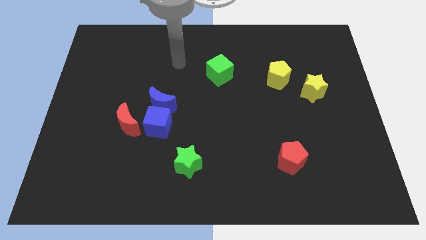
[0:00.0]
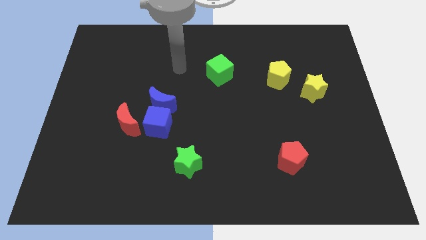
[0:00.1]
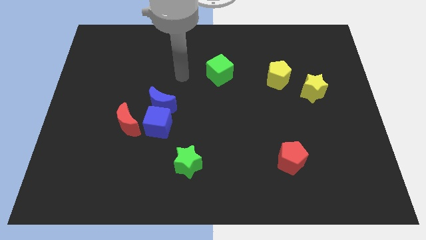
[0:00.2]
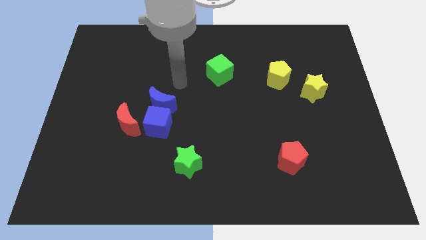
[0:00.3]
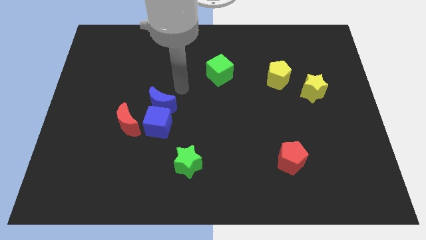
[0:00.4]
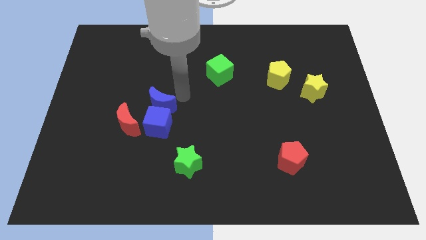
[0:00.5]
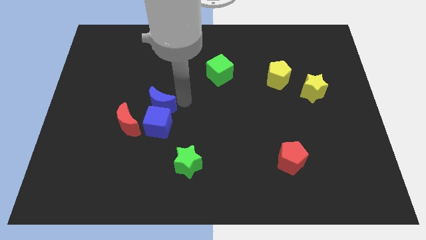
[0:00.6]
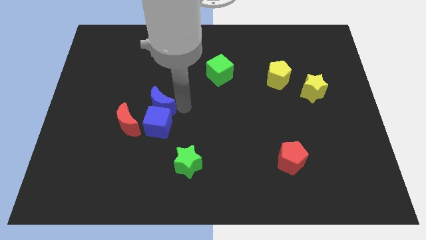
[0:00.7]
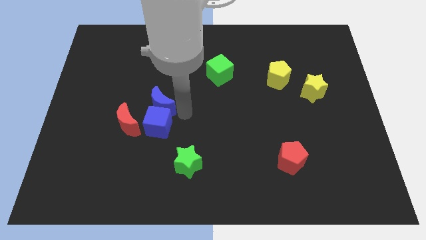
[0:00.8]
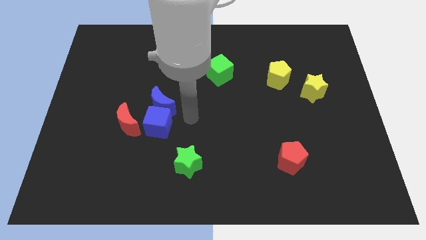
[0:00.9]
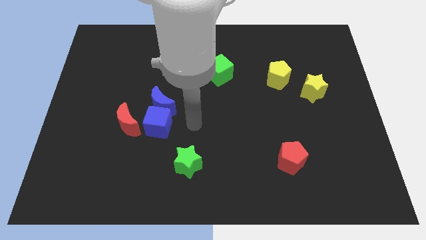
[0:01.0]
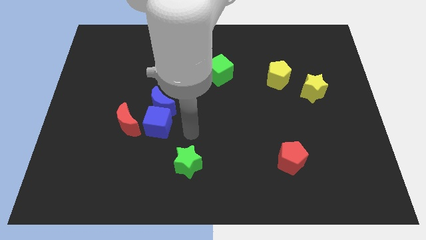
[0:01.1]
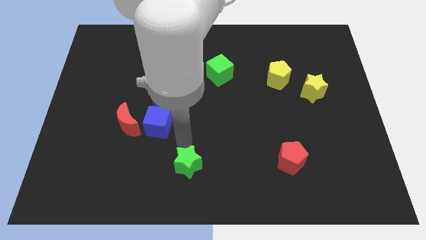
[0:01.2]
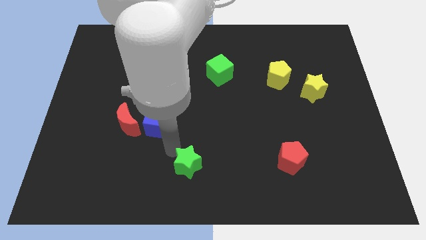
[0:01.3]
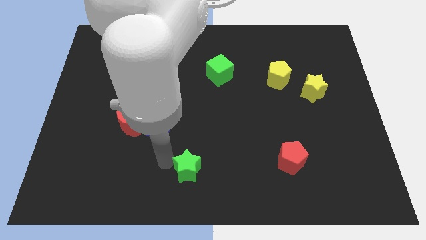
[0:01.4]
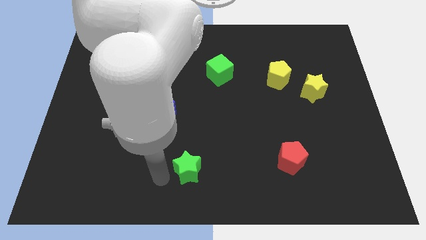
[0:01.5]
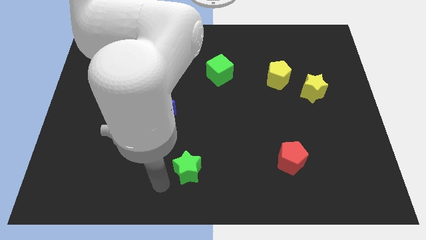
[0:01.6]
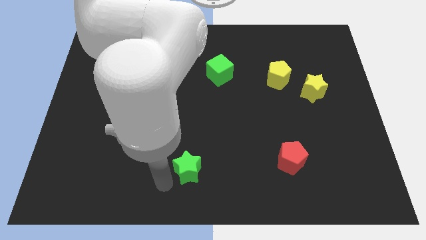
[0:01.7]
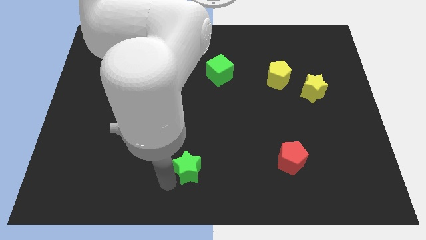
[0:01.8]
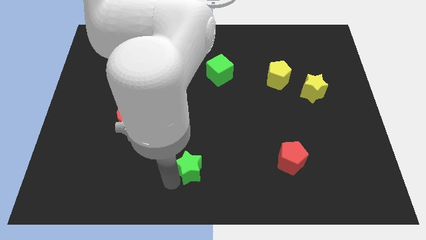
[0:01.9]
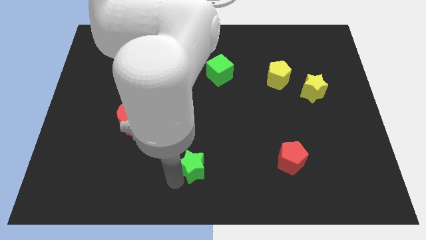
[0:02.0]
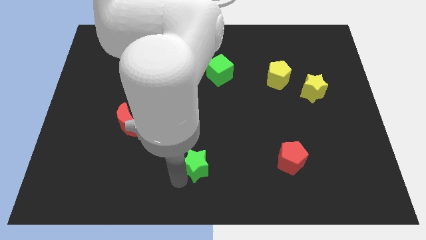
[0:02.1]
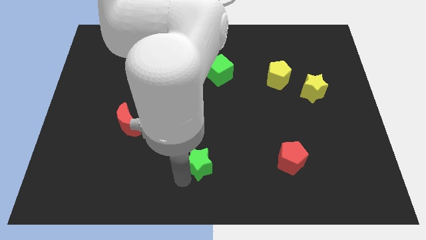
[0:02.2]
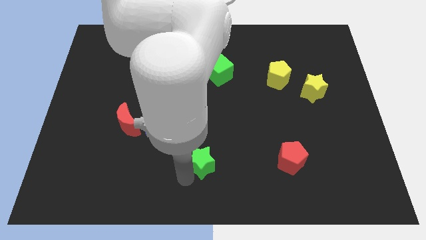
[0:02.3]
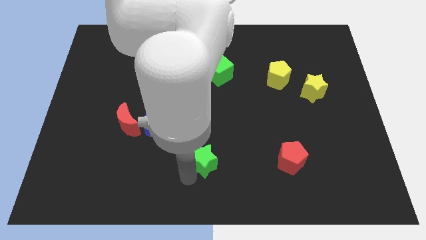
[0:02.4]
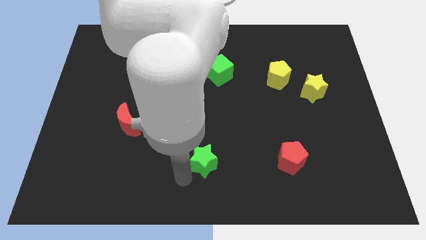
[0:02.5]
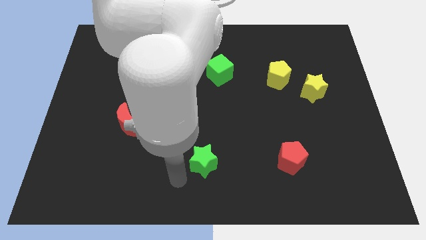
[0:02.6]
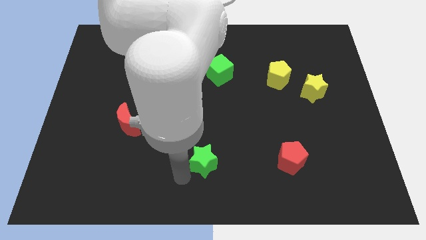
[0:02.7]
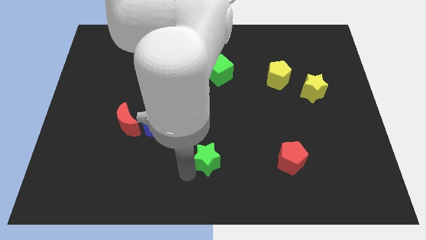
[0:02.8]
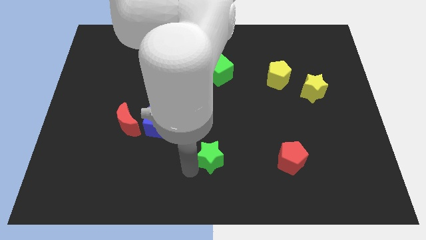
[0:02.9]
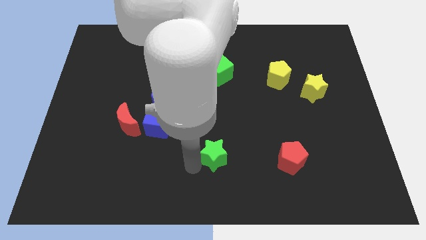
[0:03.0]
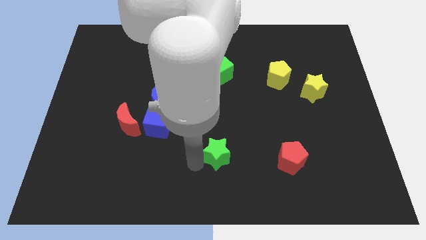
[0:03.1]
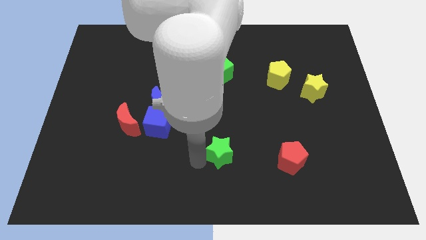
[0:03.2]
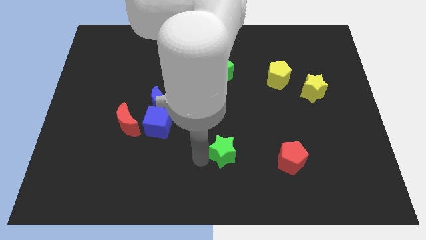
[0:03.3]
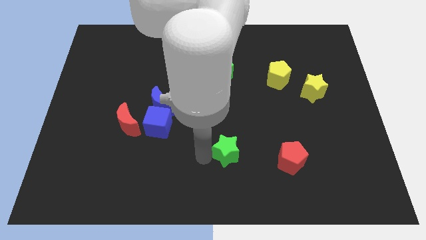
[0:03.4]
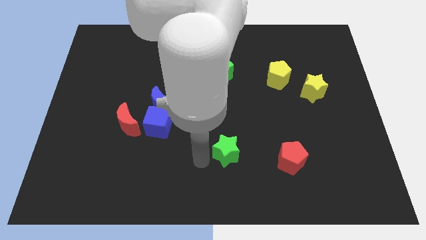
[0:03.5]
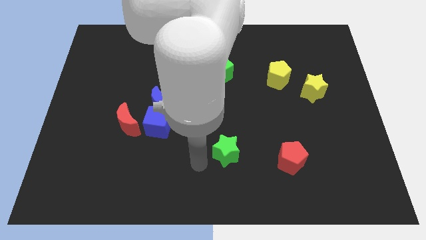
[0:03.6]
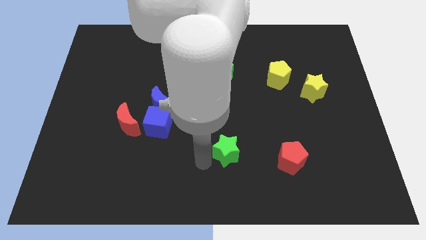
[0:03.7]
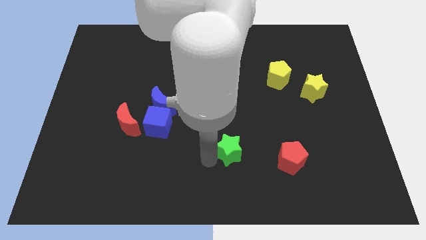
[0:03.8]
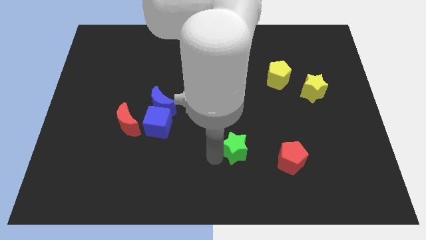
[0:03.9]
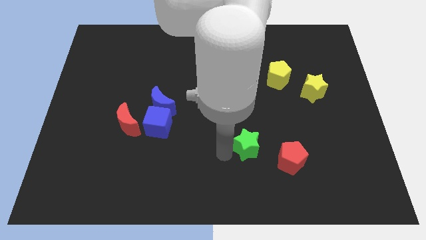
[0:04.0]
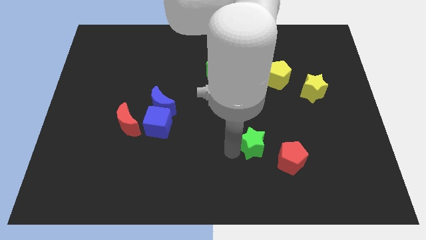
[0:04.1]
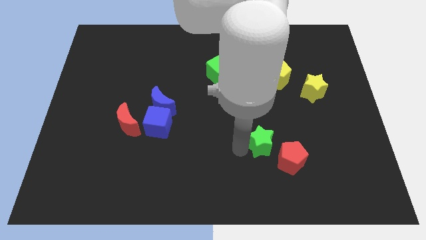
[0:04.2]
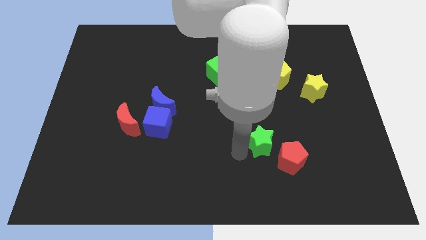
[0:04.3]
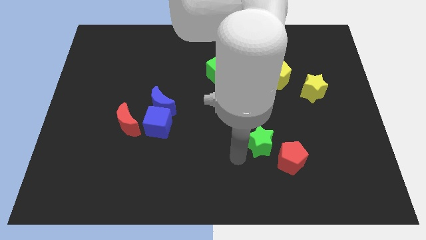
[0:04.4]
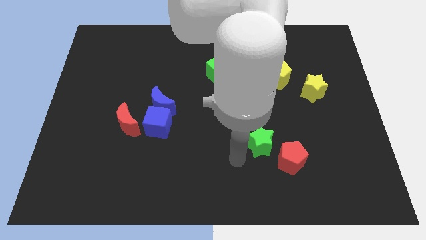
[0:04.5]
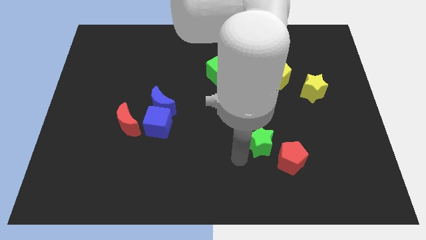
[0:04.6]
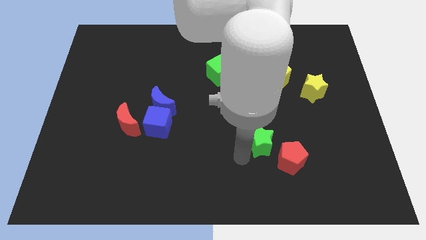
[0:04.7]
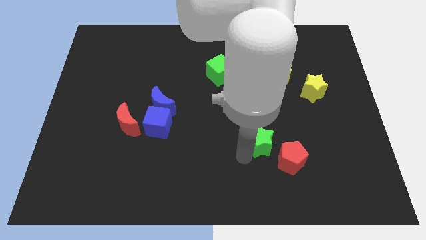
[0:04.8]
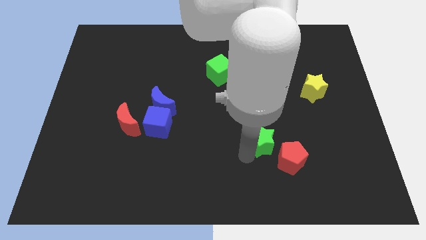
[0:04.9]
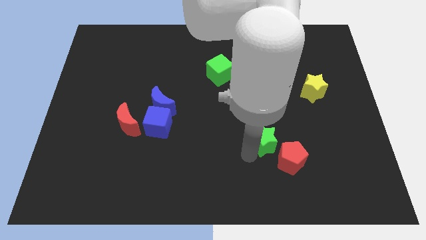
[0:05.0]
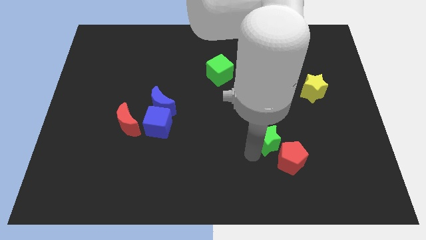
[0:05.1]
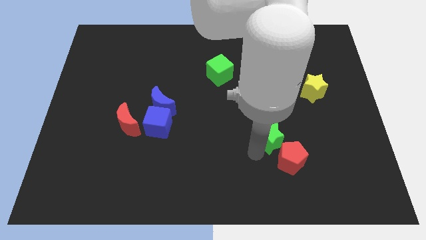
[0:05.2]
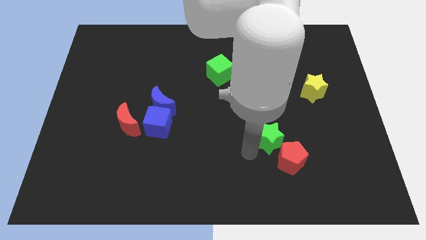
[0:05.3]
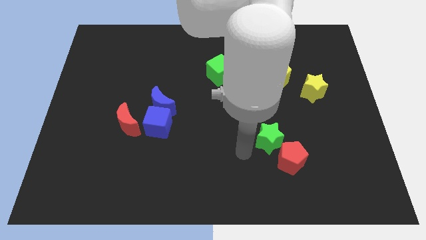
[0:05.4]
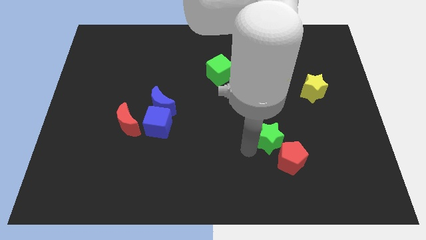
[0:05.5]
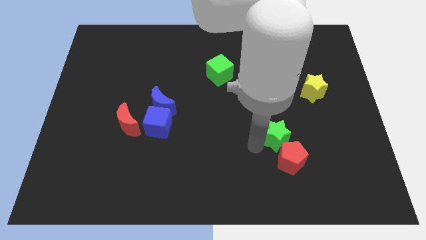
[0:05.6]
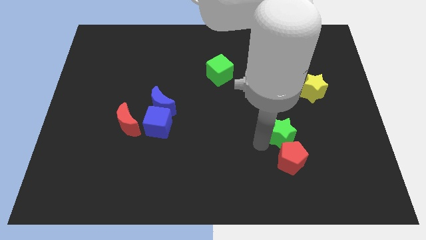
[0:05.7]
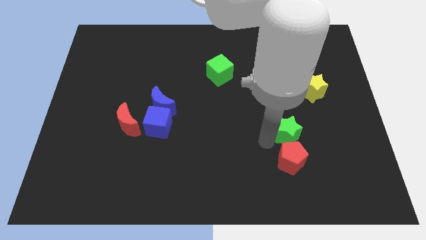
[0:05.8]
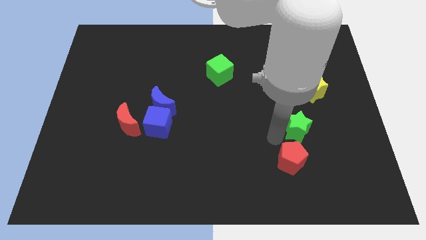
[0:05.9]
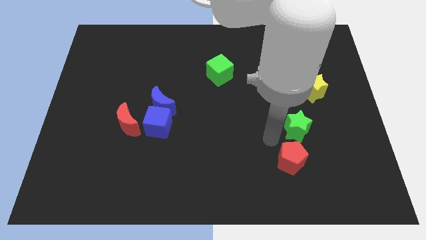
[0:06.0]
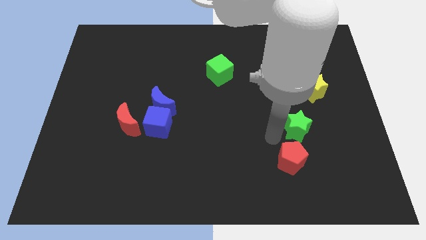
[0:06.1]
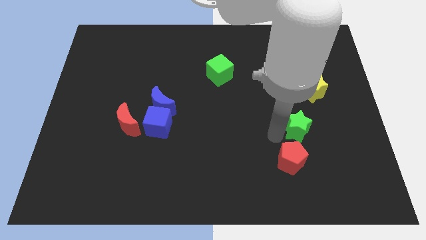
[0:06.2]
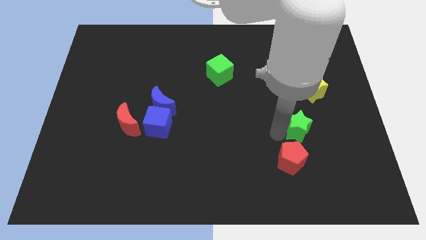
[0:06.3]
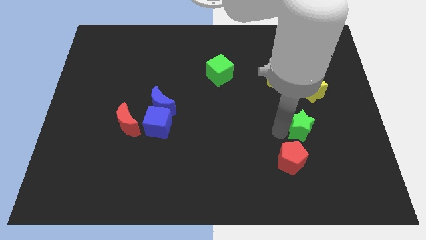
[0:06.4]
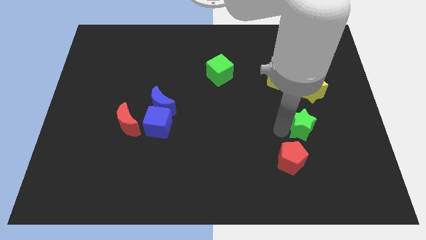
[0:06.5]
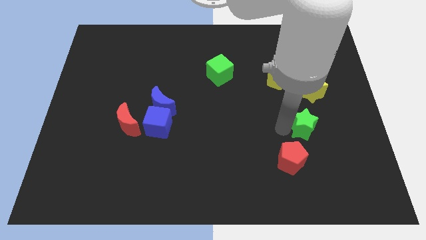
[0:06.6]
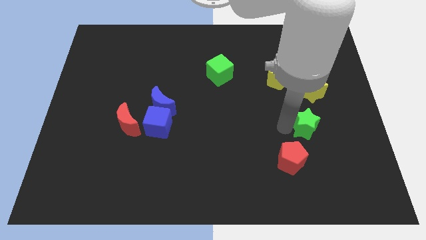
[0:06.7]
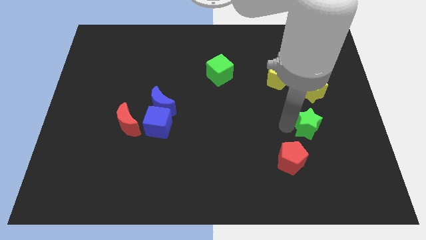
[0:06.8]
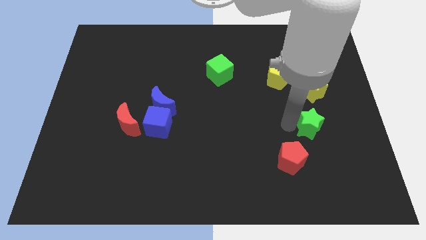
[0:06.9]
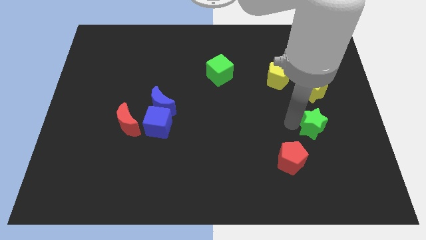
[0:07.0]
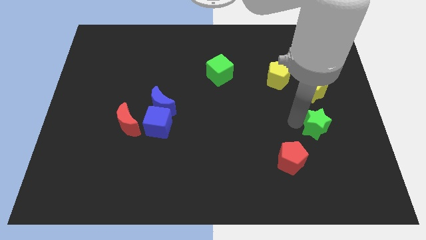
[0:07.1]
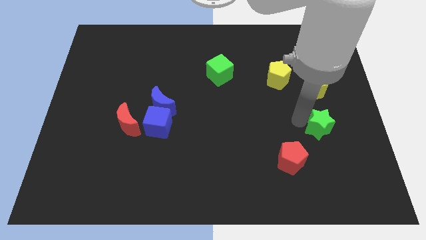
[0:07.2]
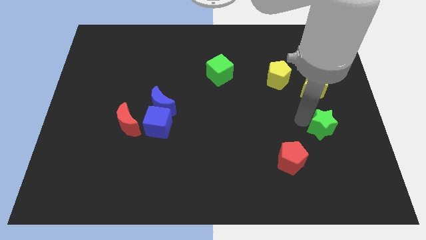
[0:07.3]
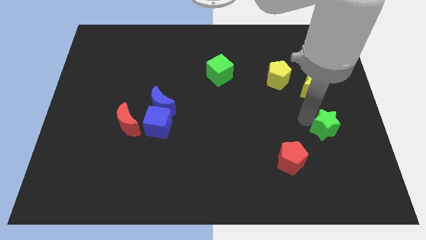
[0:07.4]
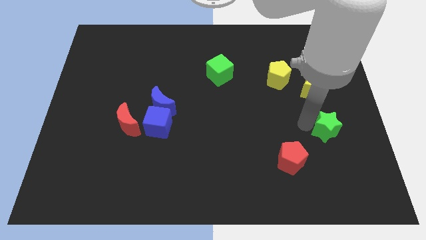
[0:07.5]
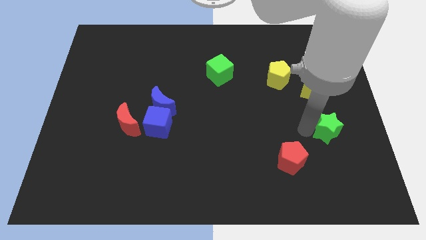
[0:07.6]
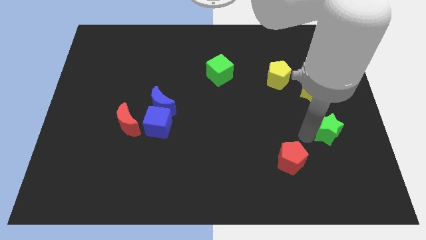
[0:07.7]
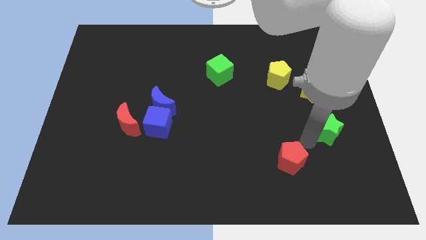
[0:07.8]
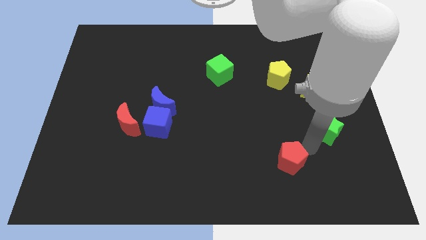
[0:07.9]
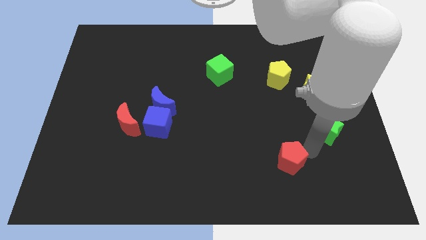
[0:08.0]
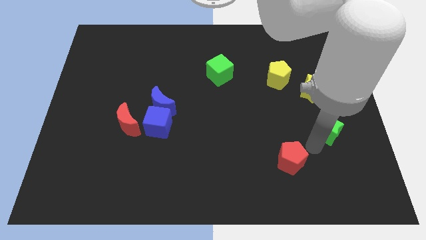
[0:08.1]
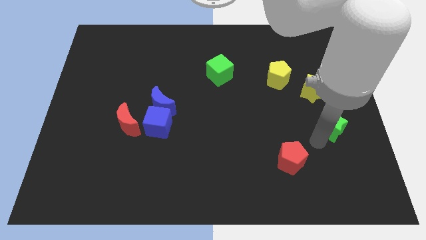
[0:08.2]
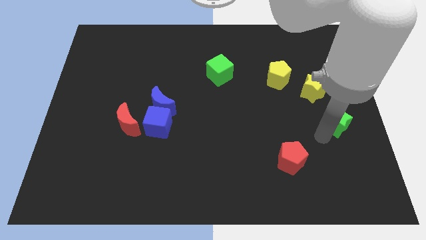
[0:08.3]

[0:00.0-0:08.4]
push the green star to the center right
